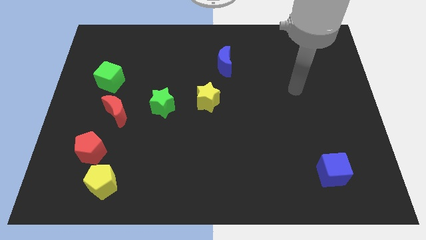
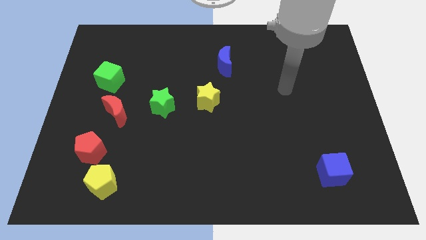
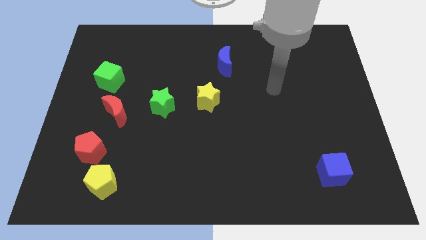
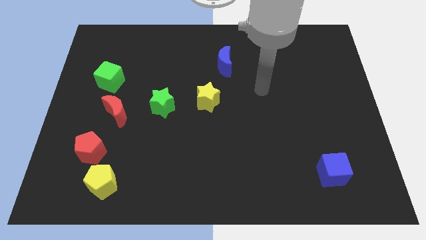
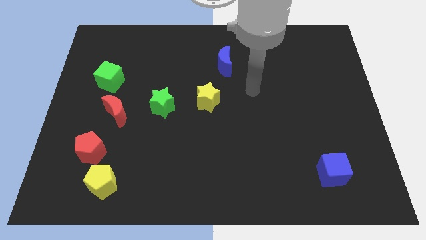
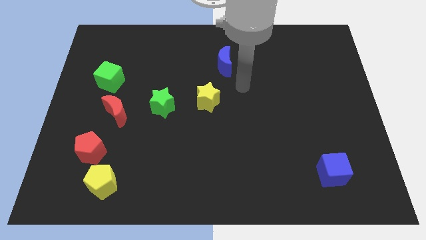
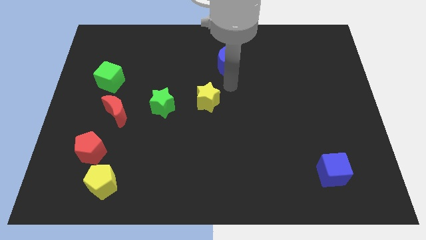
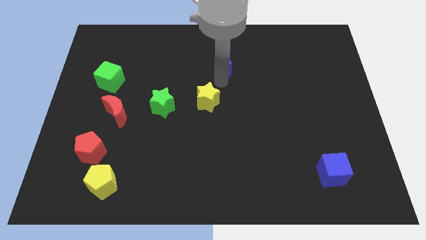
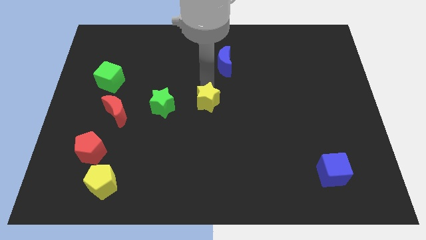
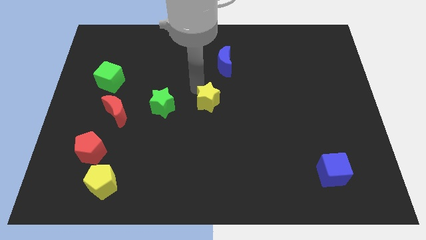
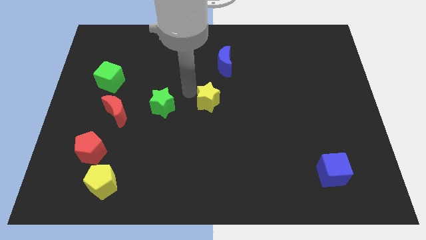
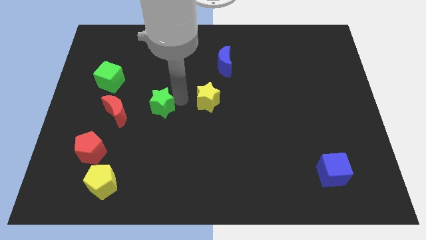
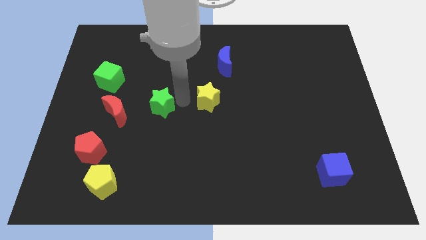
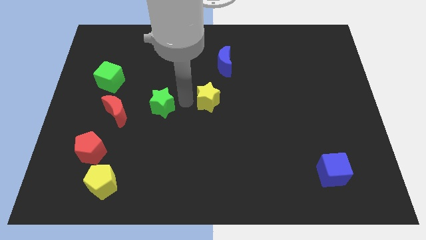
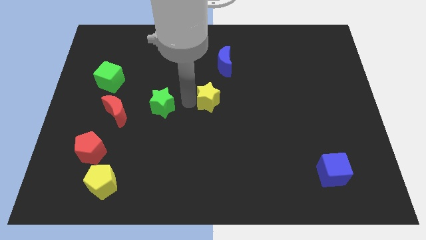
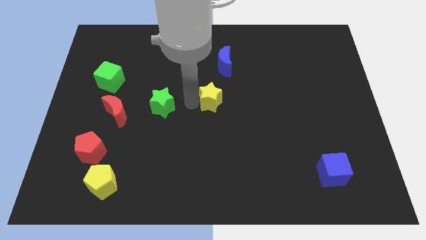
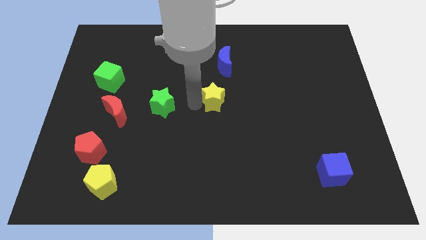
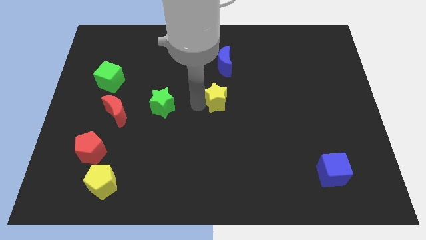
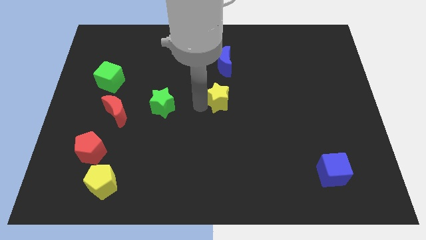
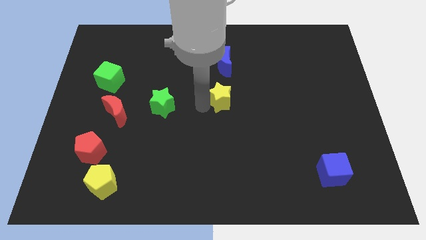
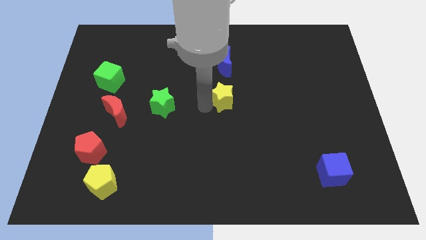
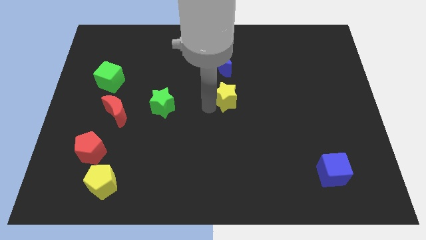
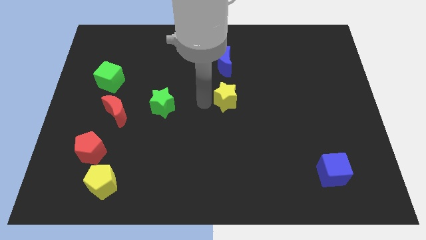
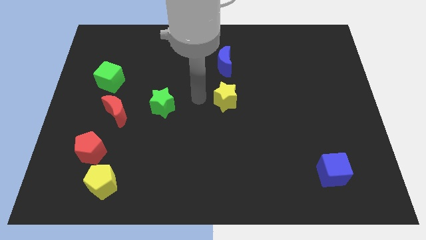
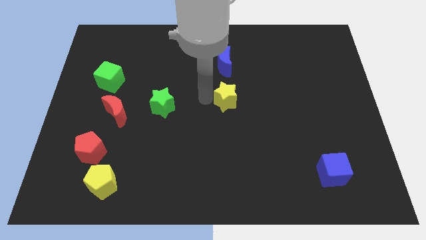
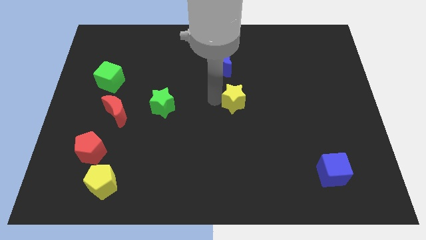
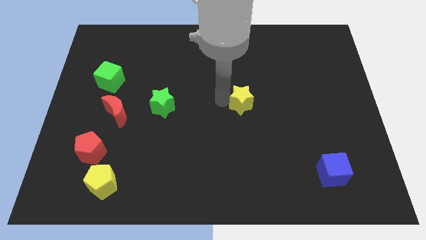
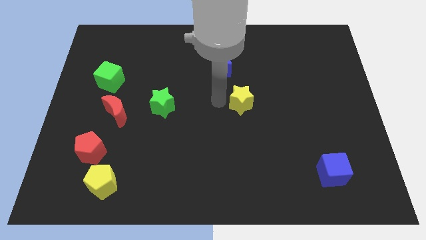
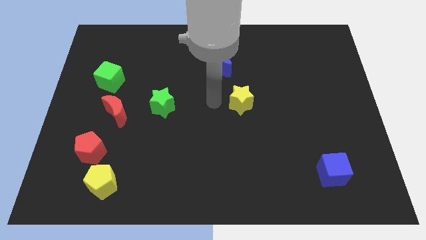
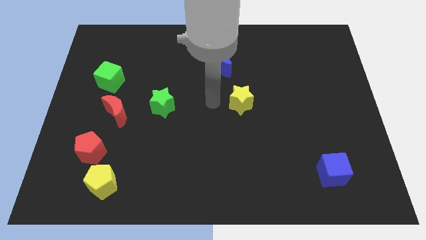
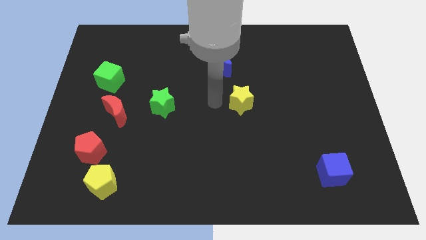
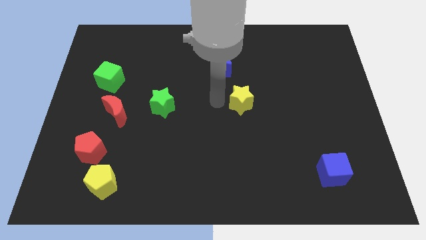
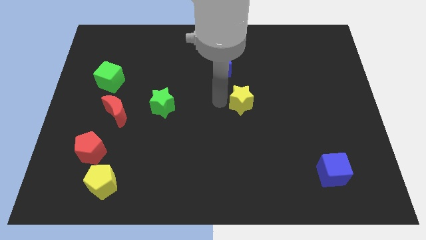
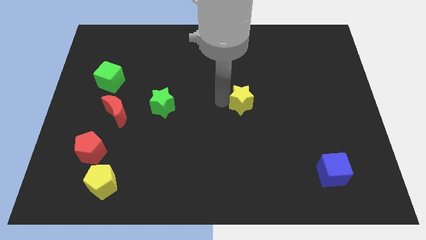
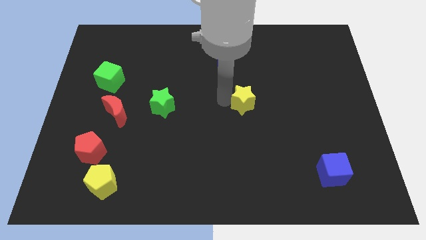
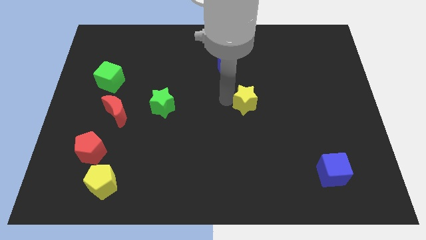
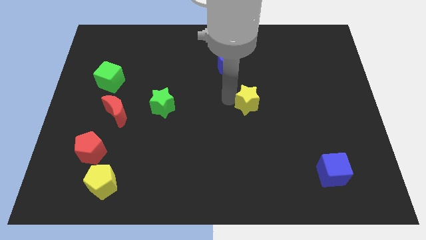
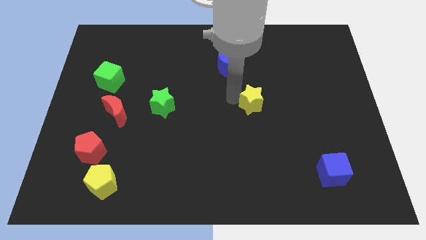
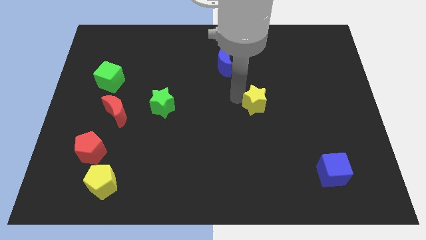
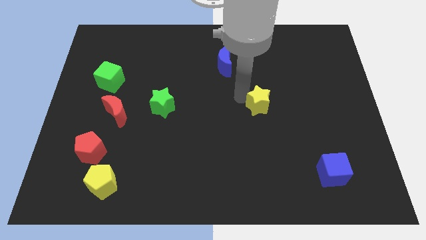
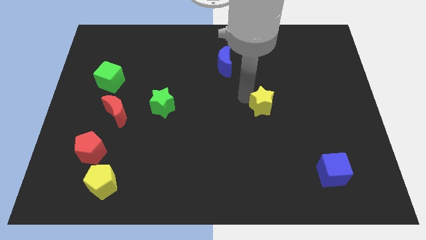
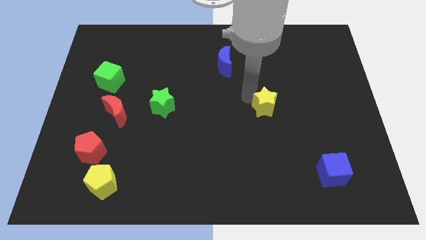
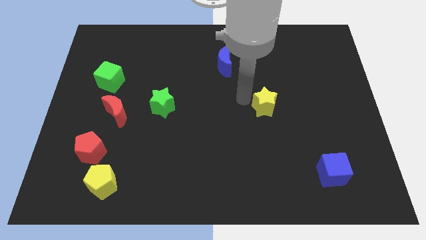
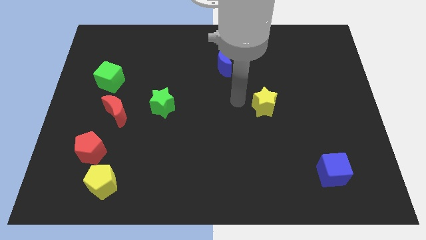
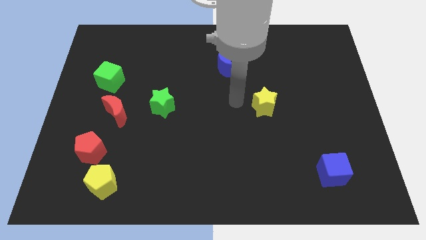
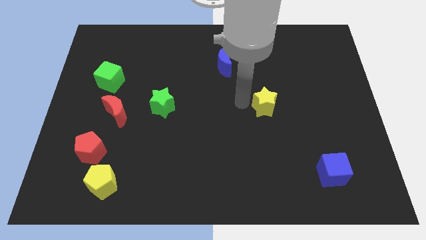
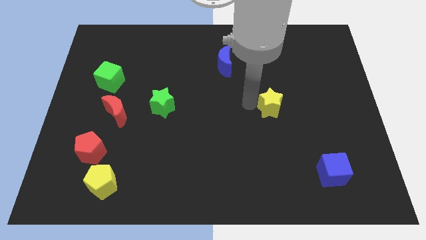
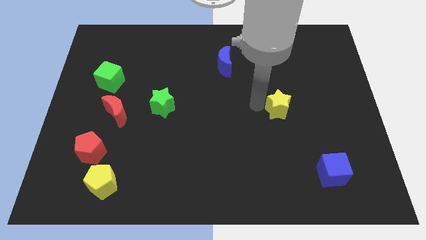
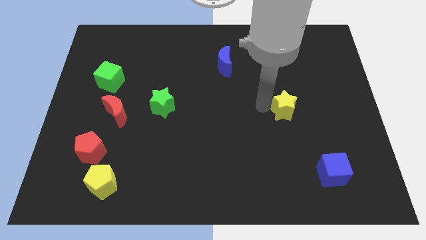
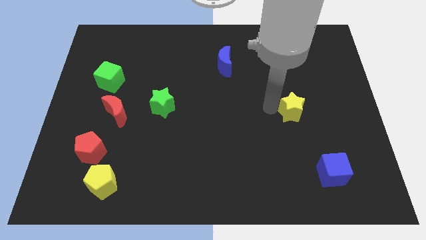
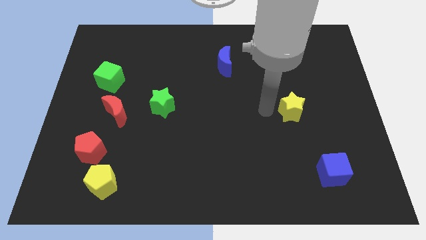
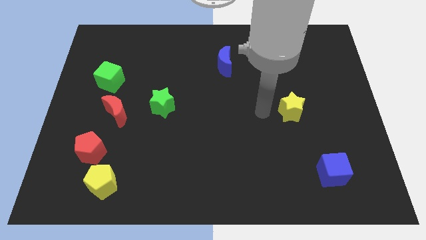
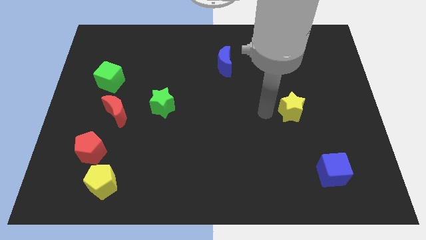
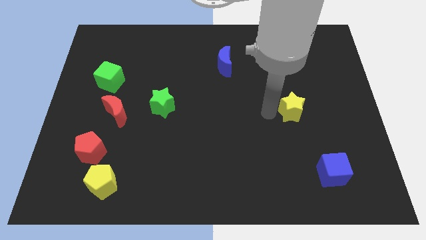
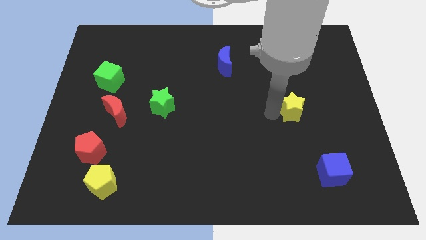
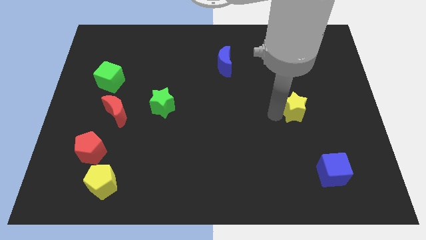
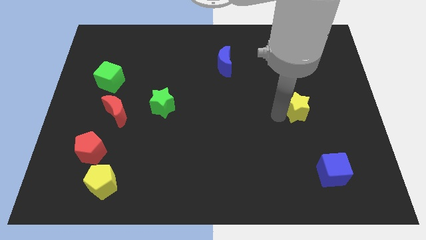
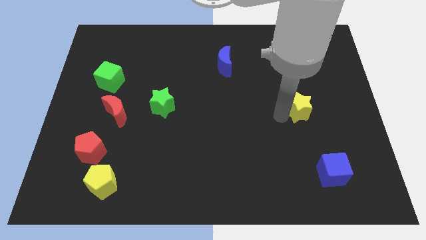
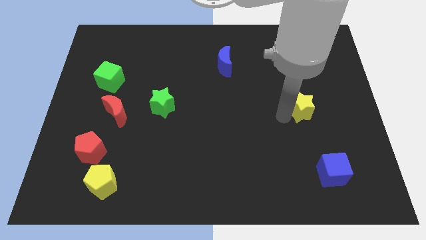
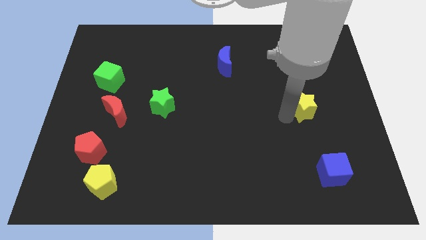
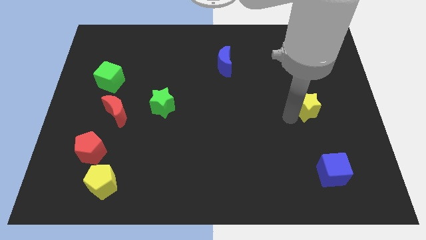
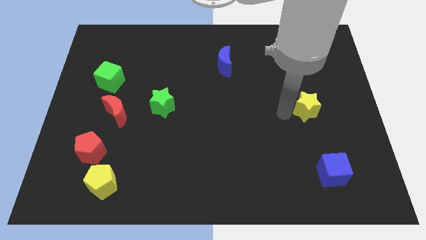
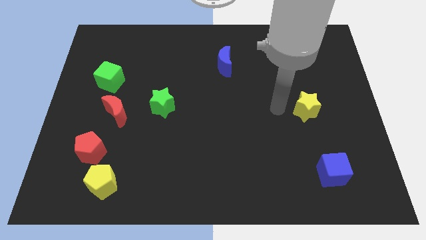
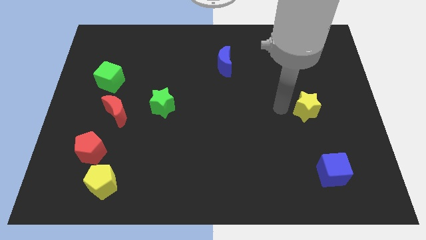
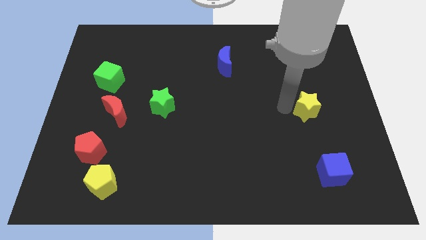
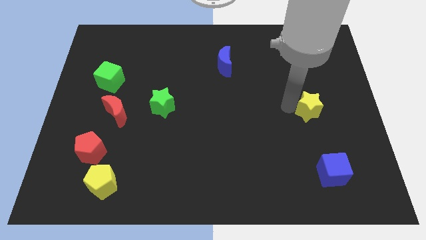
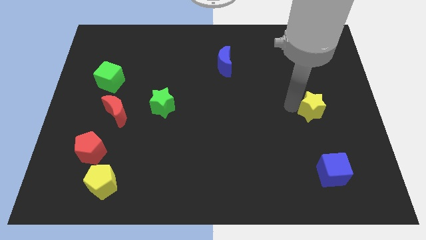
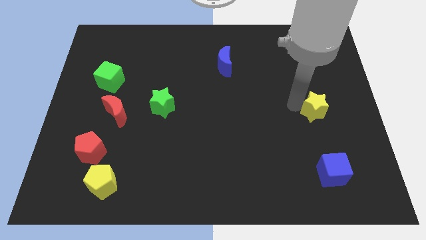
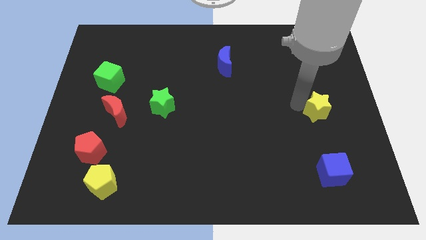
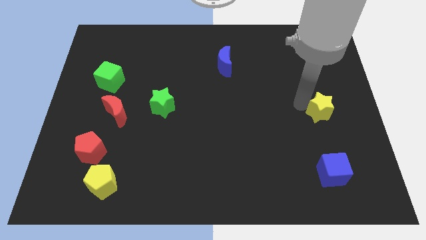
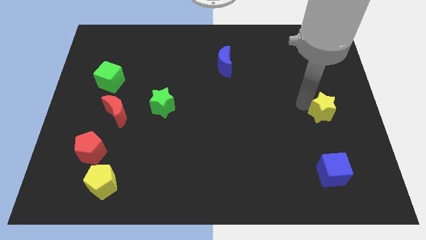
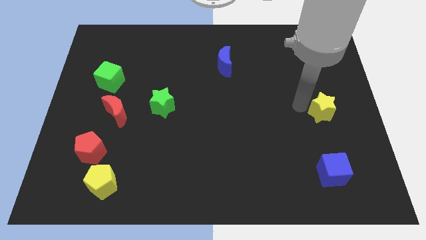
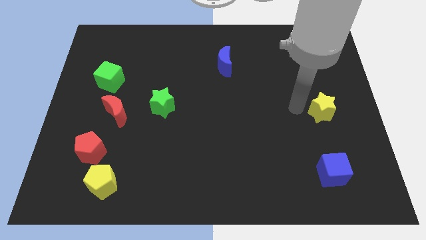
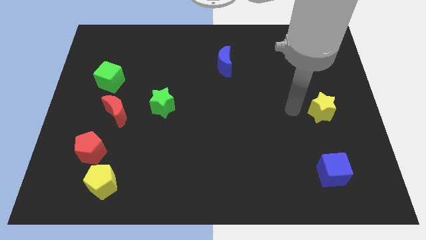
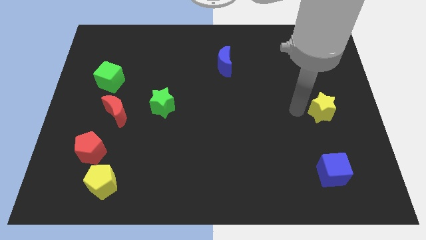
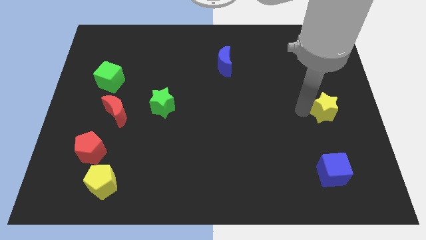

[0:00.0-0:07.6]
put the yellow star to the right side of the board
